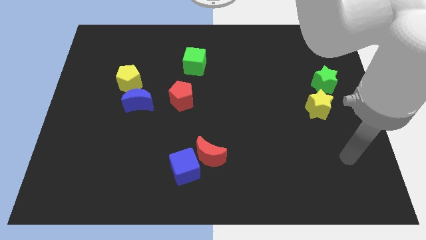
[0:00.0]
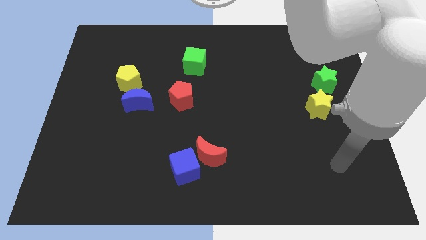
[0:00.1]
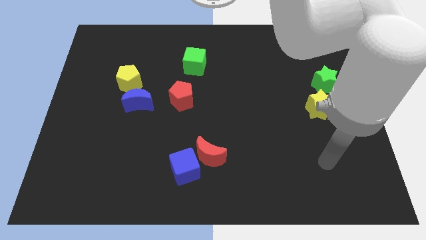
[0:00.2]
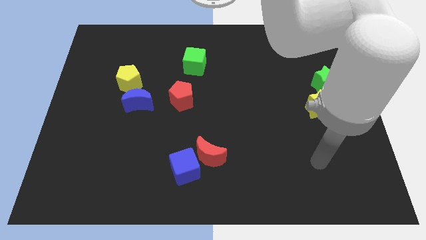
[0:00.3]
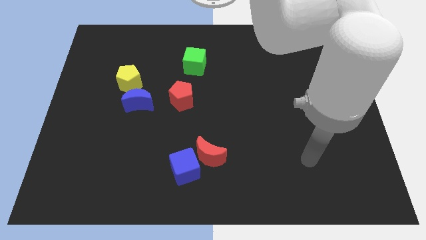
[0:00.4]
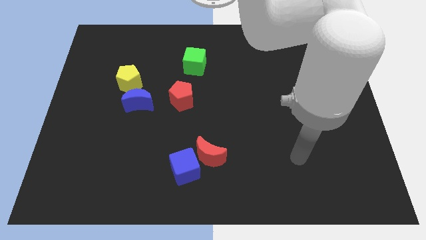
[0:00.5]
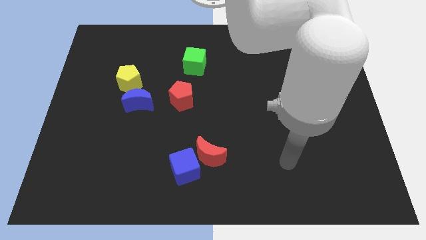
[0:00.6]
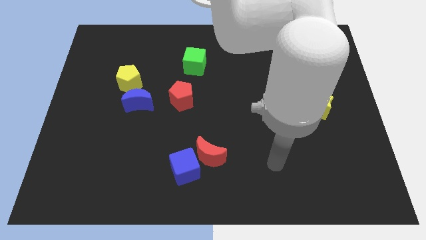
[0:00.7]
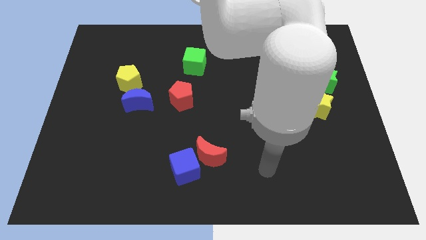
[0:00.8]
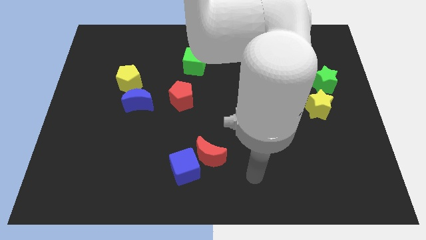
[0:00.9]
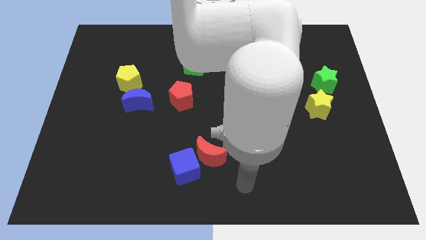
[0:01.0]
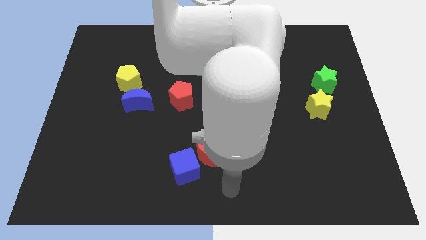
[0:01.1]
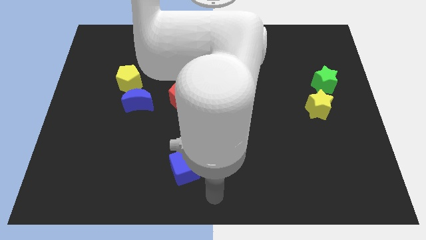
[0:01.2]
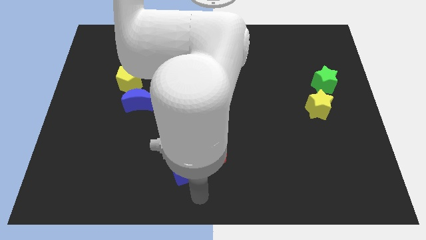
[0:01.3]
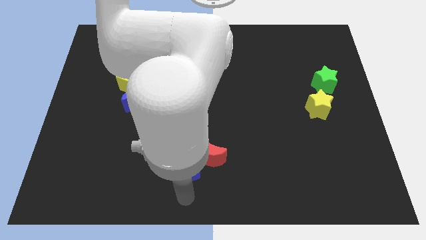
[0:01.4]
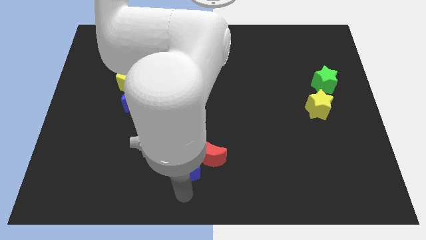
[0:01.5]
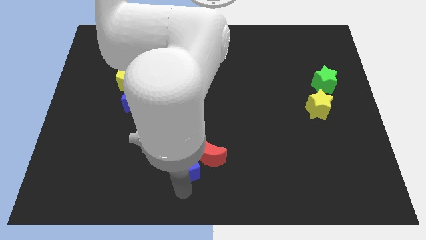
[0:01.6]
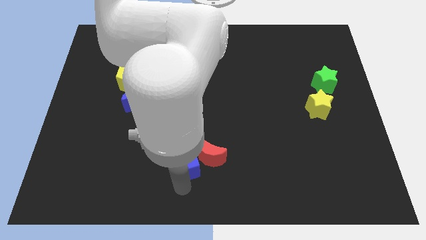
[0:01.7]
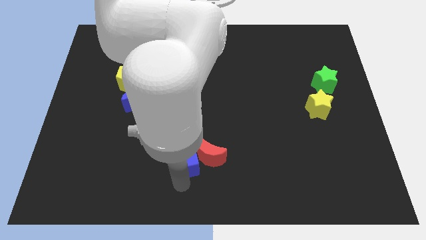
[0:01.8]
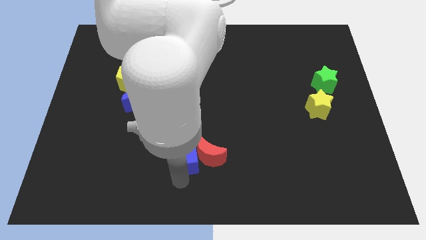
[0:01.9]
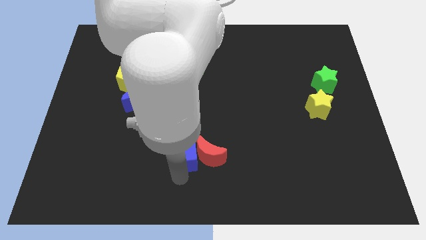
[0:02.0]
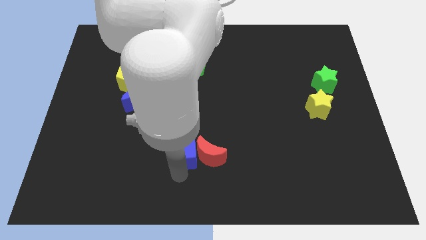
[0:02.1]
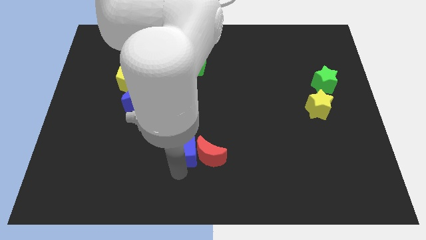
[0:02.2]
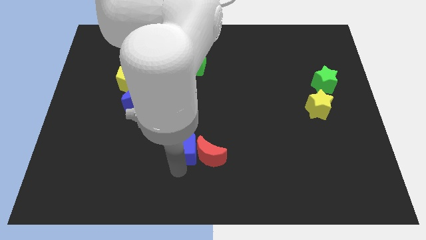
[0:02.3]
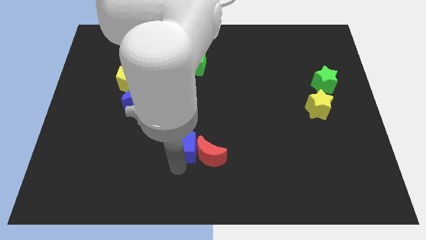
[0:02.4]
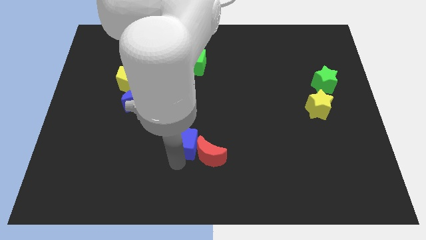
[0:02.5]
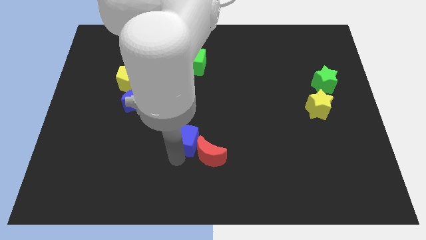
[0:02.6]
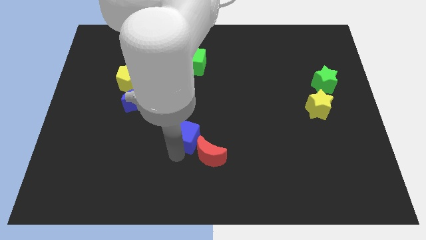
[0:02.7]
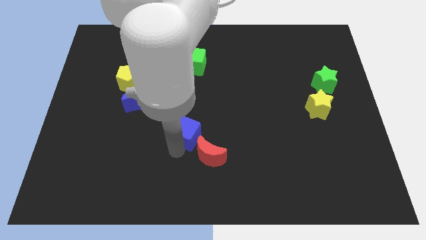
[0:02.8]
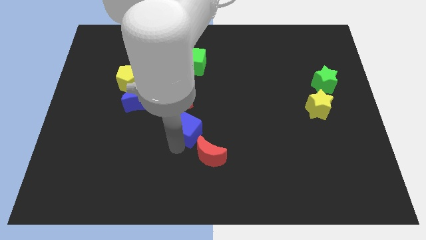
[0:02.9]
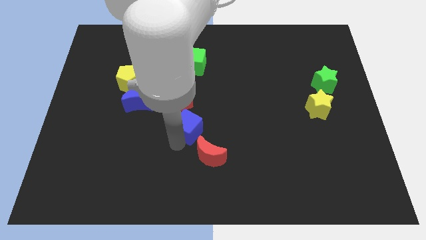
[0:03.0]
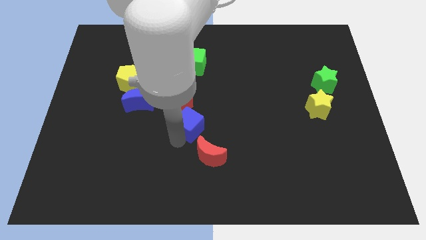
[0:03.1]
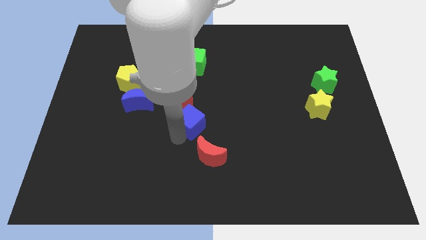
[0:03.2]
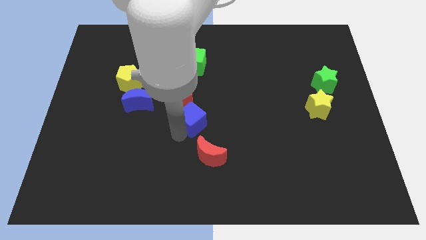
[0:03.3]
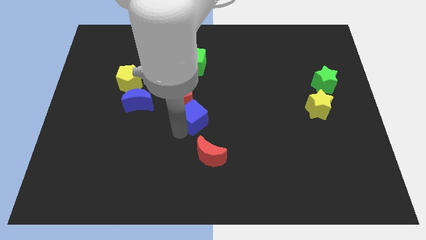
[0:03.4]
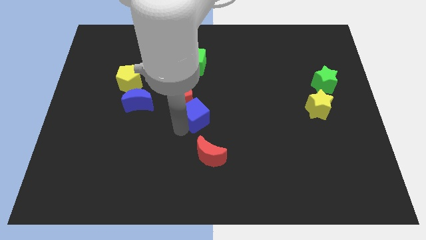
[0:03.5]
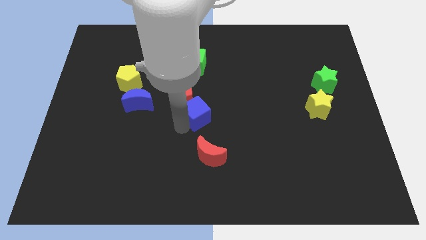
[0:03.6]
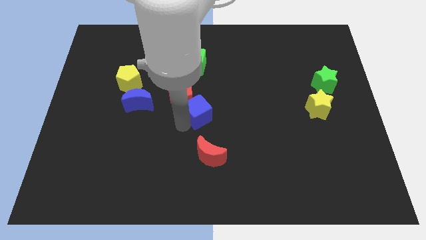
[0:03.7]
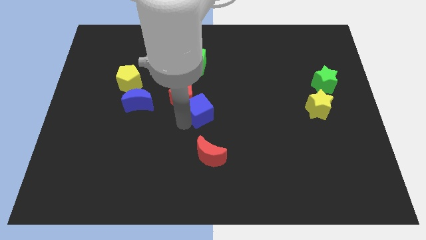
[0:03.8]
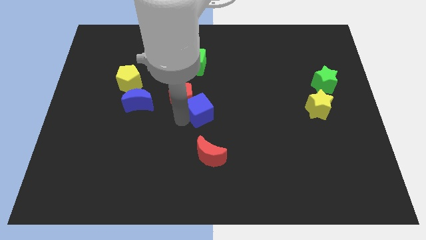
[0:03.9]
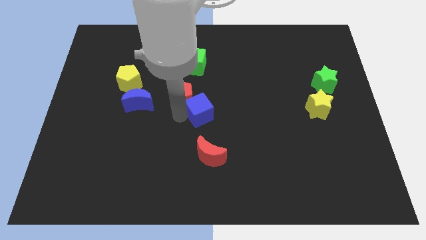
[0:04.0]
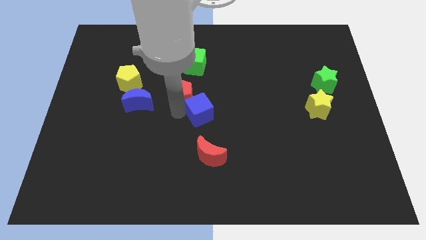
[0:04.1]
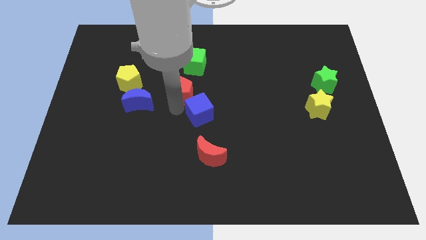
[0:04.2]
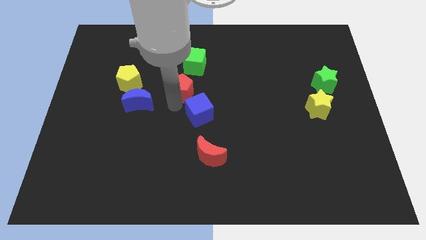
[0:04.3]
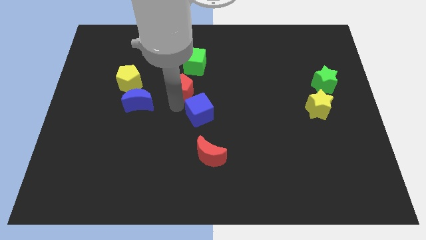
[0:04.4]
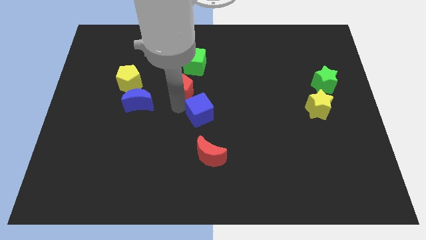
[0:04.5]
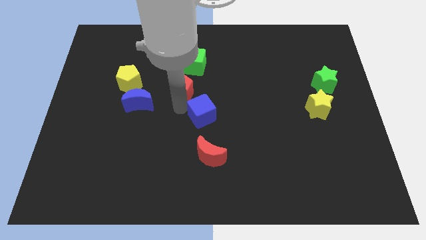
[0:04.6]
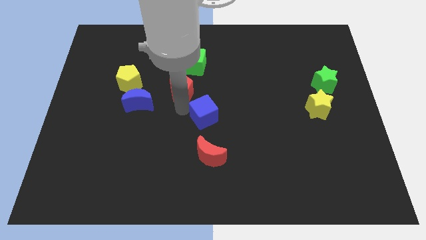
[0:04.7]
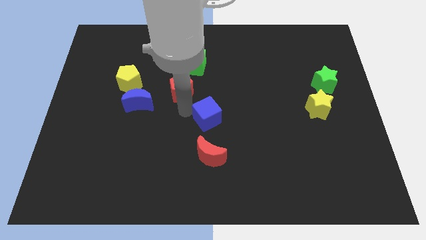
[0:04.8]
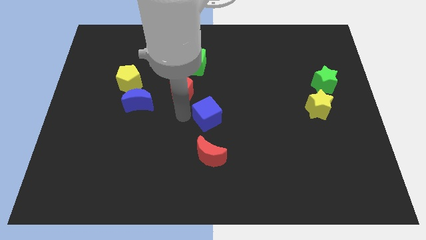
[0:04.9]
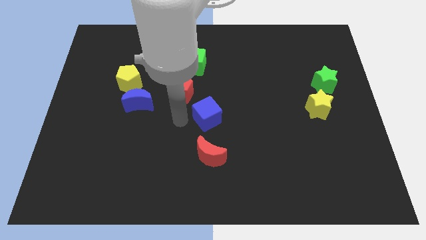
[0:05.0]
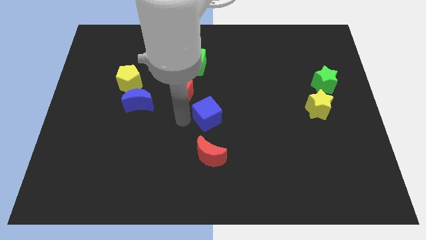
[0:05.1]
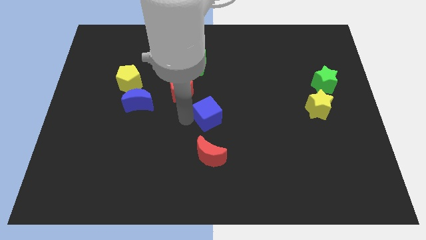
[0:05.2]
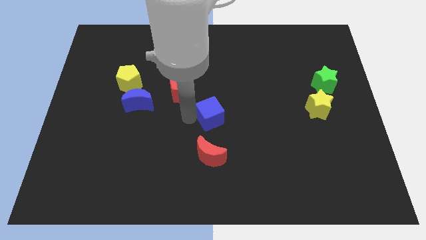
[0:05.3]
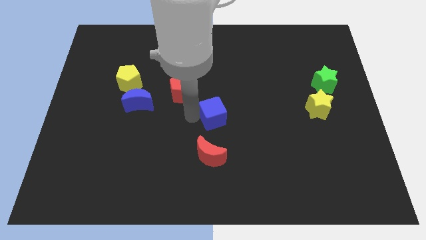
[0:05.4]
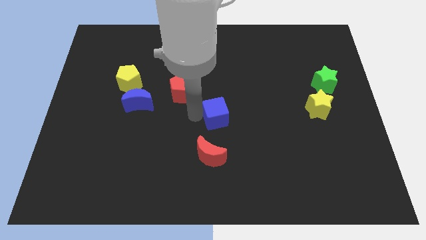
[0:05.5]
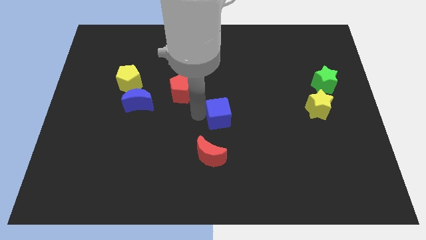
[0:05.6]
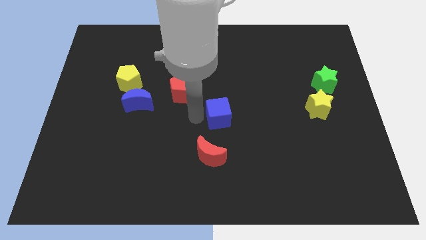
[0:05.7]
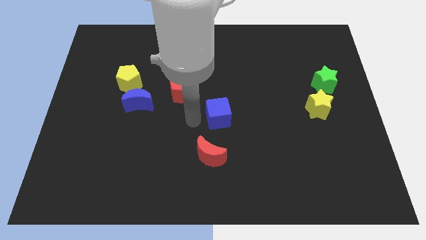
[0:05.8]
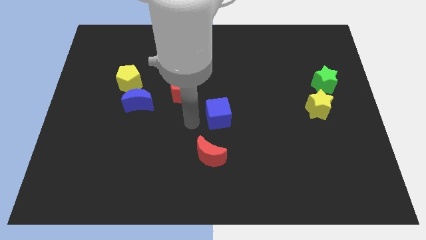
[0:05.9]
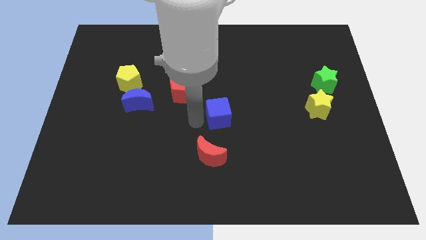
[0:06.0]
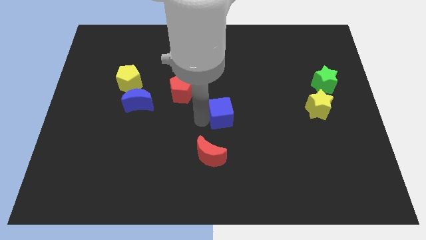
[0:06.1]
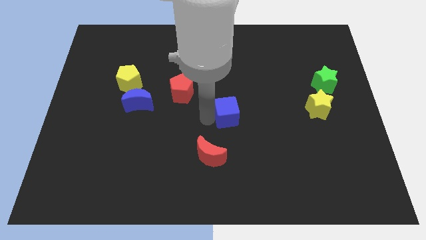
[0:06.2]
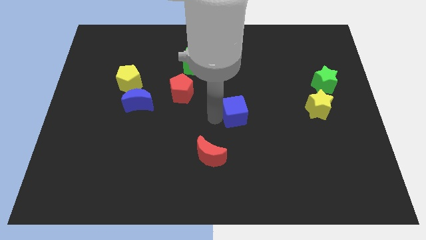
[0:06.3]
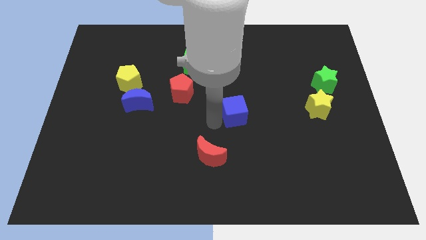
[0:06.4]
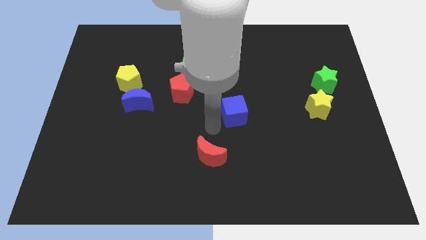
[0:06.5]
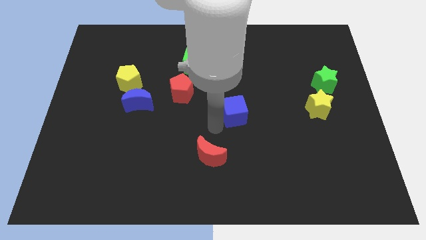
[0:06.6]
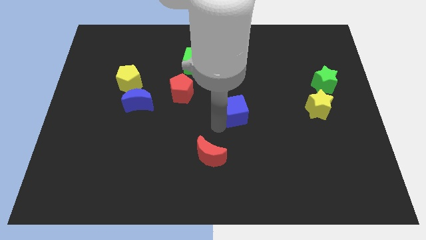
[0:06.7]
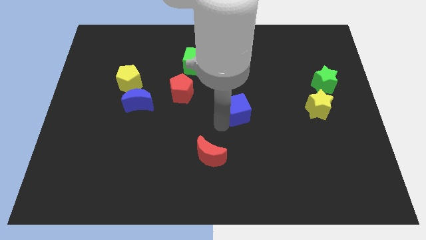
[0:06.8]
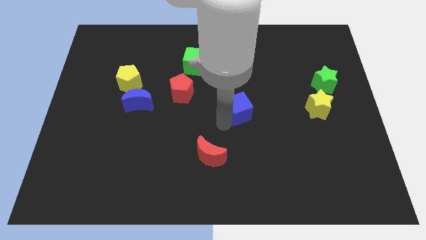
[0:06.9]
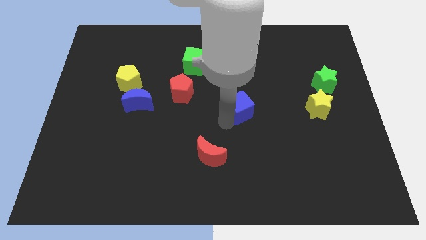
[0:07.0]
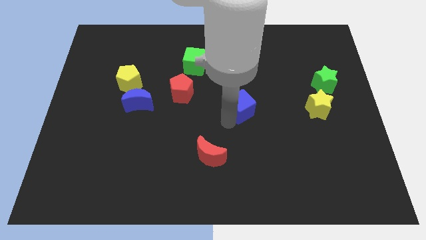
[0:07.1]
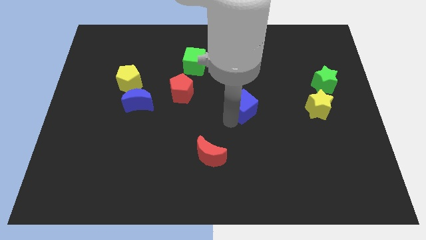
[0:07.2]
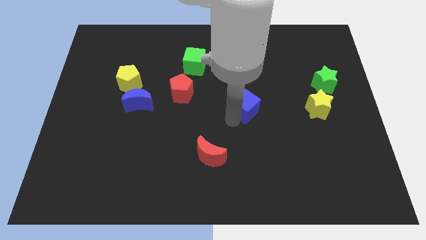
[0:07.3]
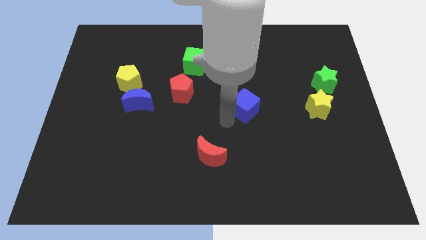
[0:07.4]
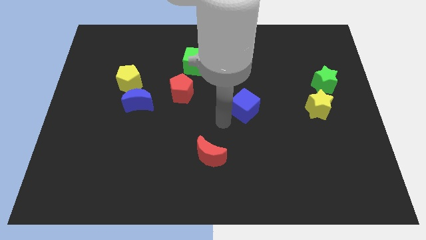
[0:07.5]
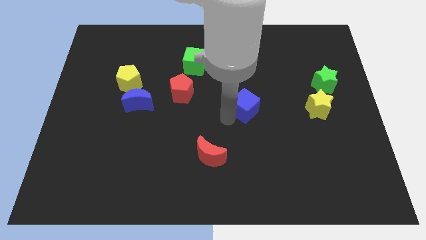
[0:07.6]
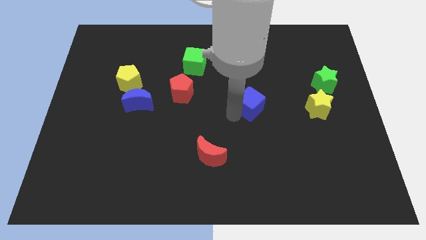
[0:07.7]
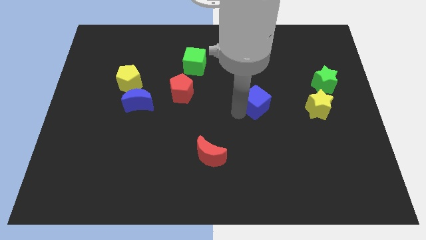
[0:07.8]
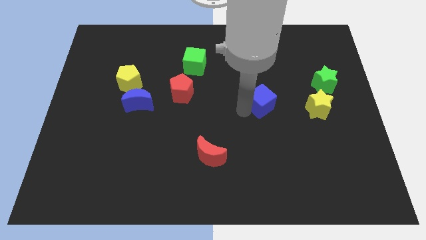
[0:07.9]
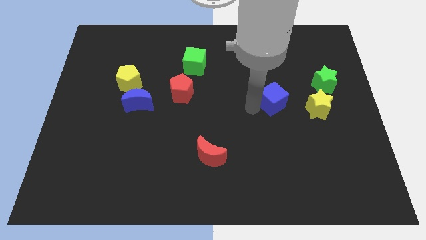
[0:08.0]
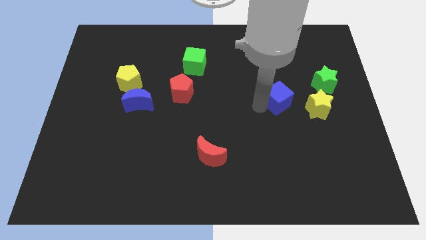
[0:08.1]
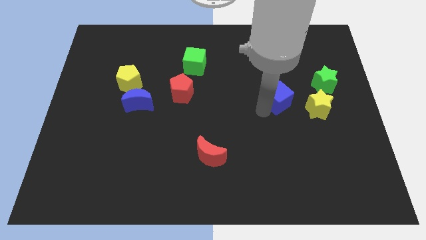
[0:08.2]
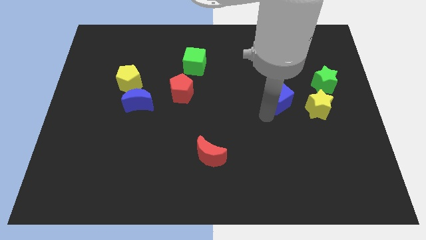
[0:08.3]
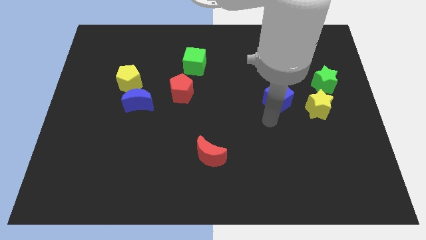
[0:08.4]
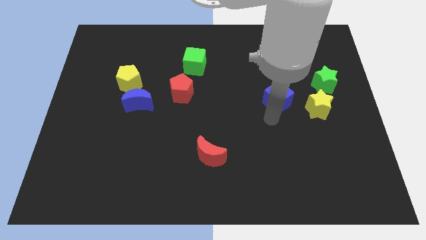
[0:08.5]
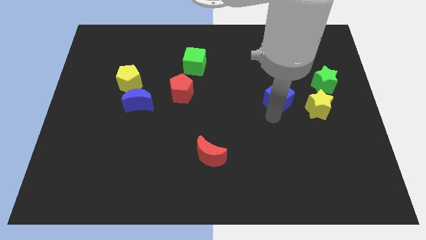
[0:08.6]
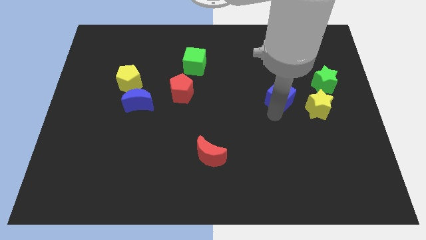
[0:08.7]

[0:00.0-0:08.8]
put the blue cube just left of the green star
